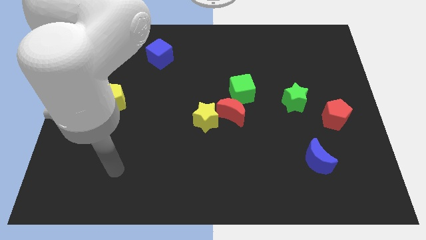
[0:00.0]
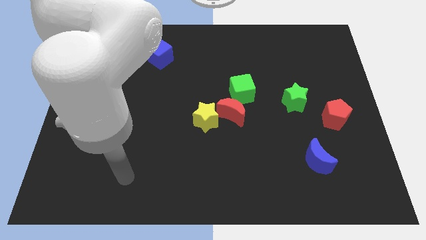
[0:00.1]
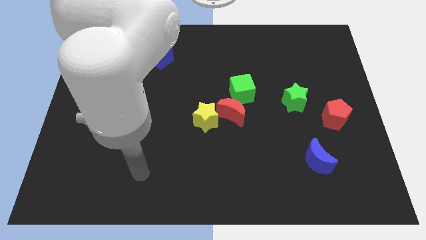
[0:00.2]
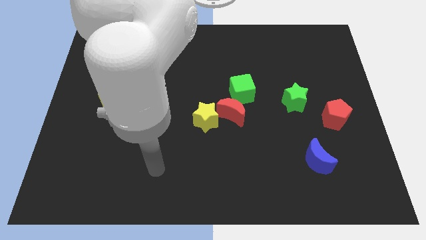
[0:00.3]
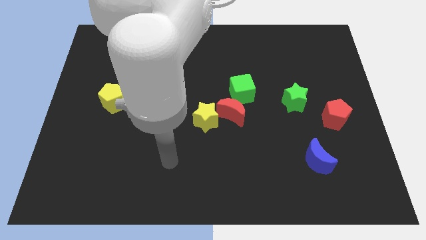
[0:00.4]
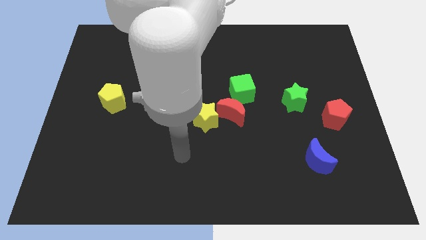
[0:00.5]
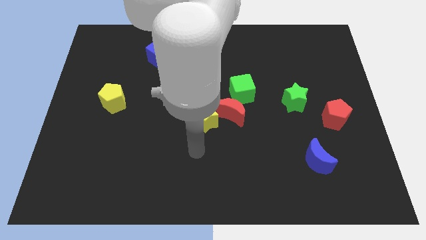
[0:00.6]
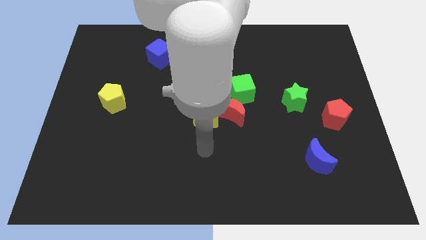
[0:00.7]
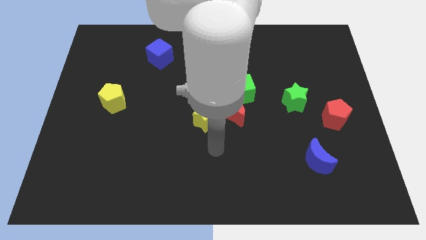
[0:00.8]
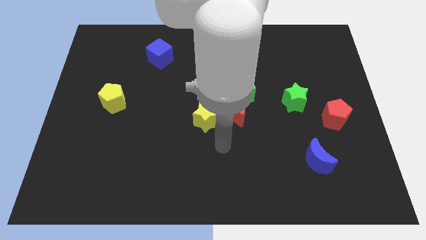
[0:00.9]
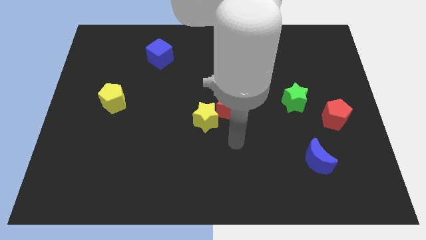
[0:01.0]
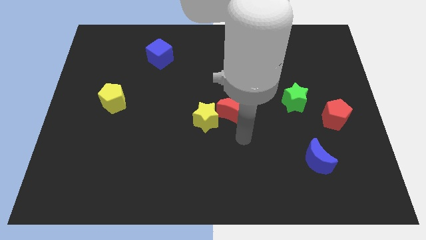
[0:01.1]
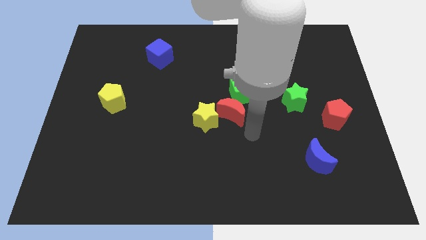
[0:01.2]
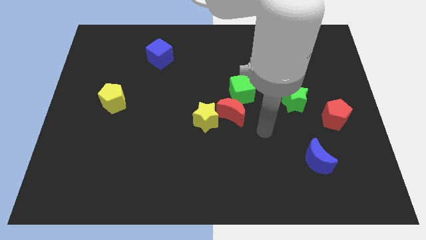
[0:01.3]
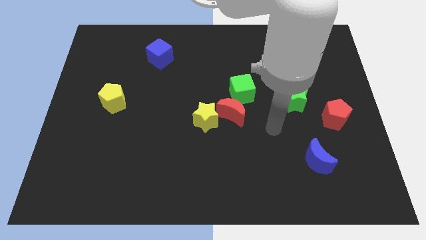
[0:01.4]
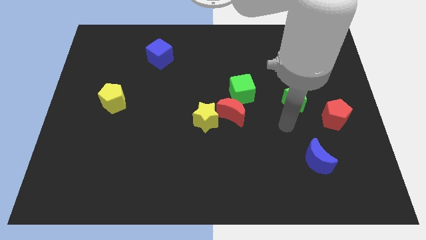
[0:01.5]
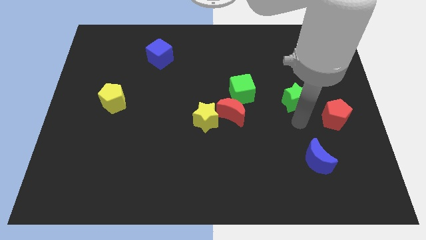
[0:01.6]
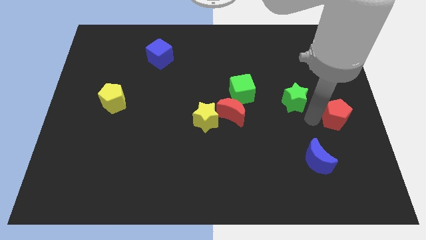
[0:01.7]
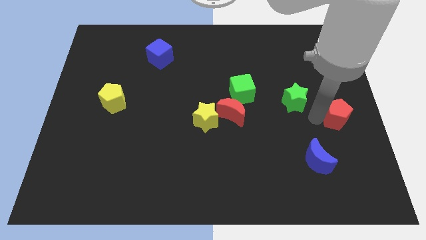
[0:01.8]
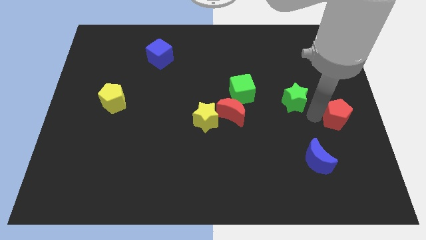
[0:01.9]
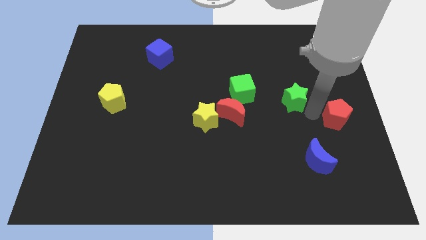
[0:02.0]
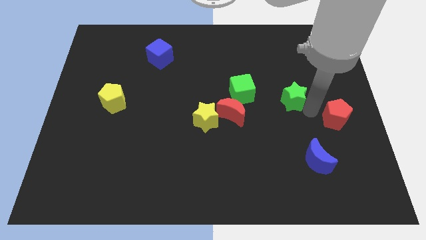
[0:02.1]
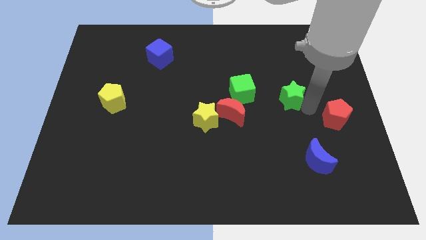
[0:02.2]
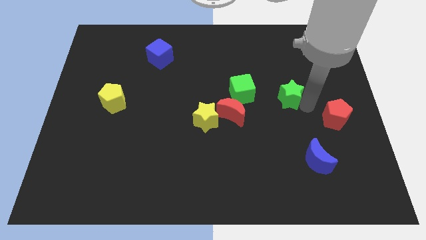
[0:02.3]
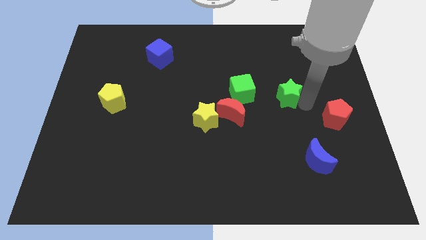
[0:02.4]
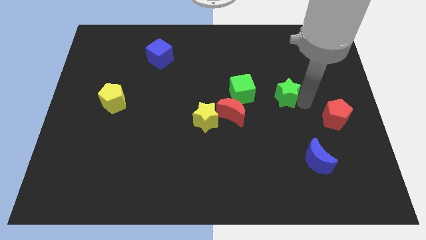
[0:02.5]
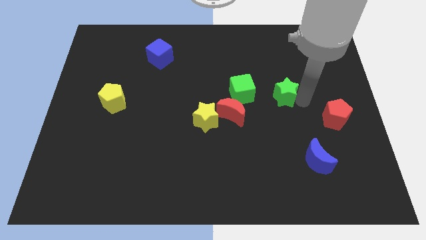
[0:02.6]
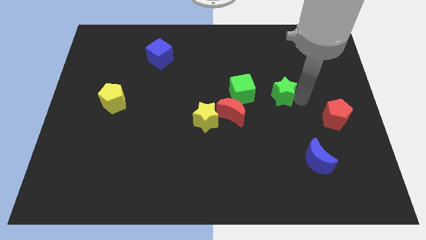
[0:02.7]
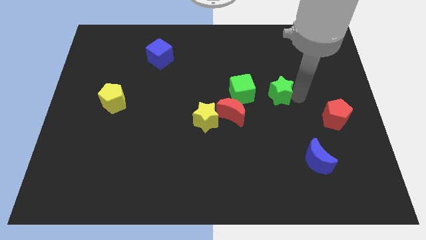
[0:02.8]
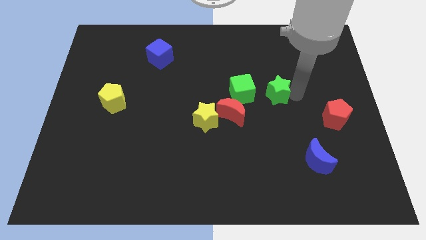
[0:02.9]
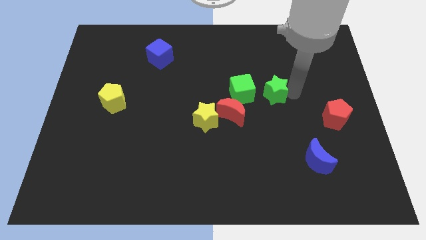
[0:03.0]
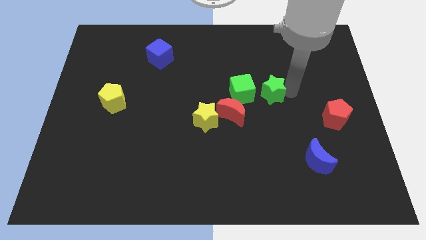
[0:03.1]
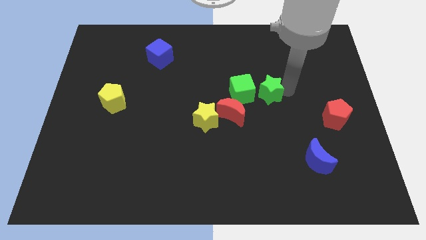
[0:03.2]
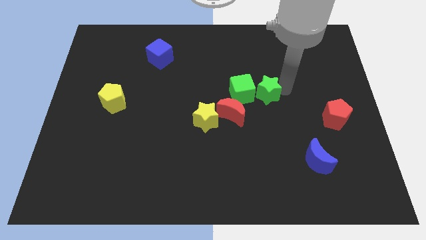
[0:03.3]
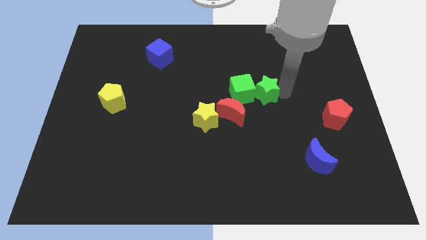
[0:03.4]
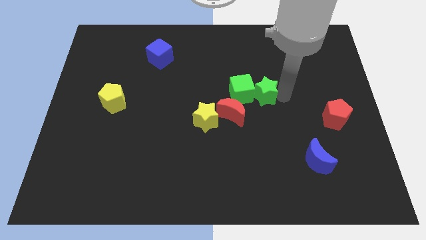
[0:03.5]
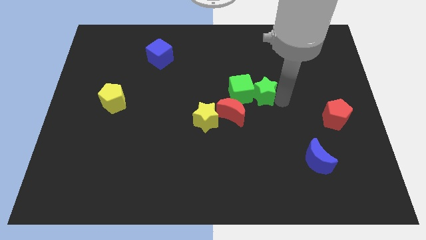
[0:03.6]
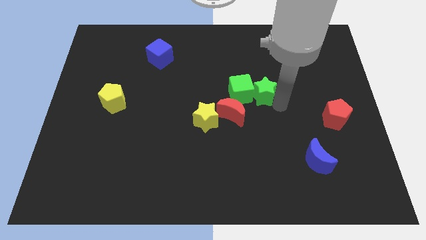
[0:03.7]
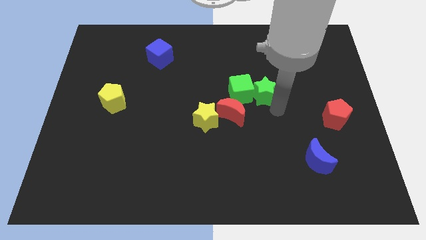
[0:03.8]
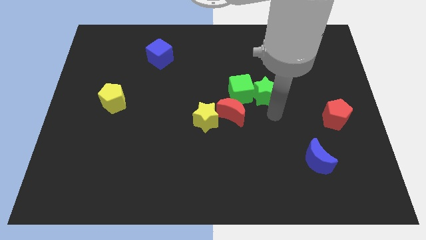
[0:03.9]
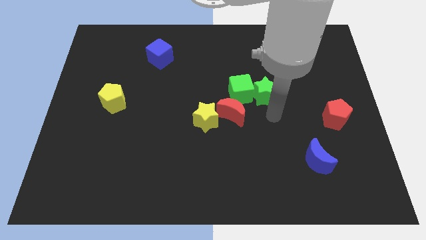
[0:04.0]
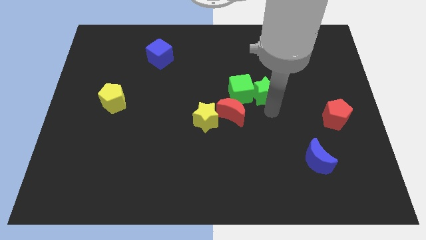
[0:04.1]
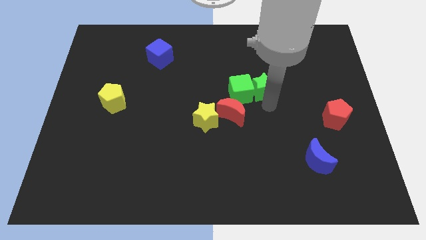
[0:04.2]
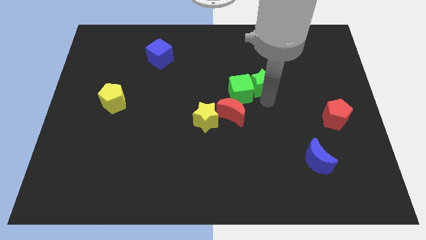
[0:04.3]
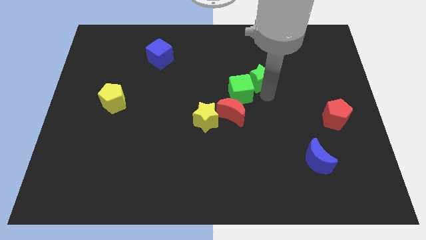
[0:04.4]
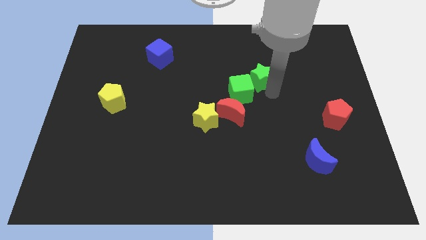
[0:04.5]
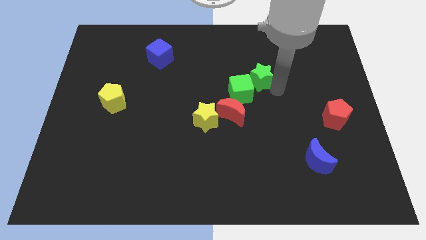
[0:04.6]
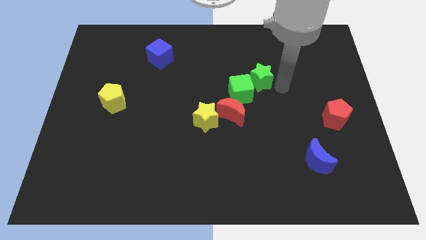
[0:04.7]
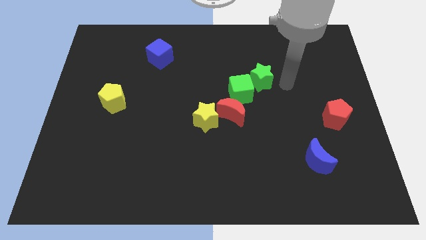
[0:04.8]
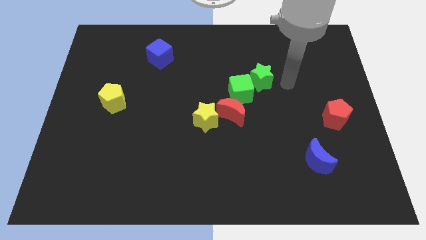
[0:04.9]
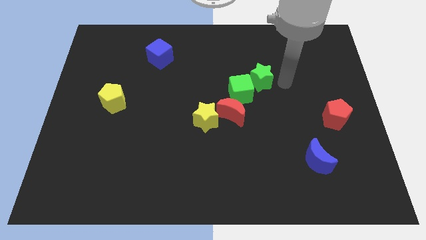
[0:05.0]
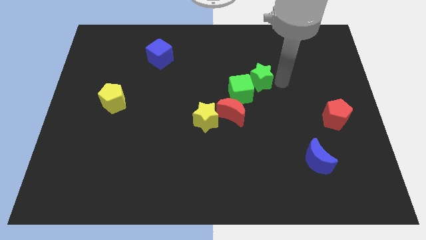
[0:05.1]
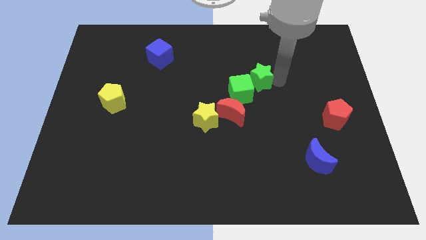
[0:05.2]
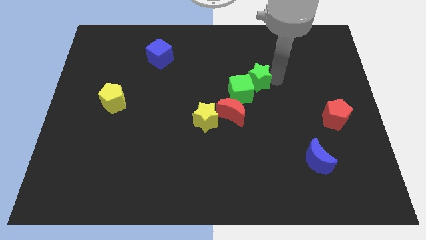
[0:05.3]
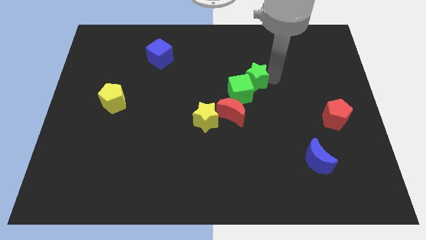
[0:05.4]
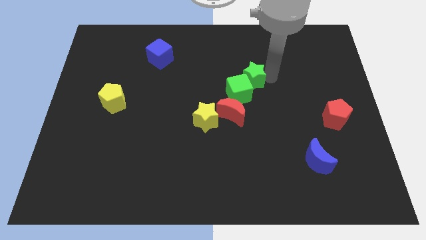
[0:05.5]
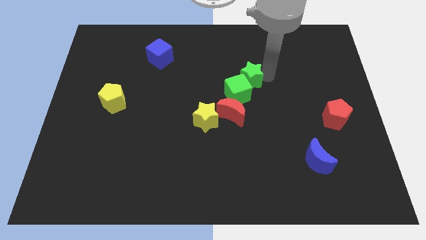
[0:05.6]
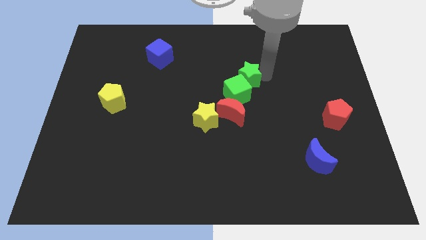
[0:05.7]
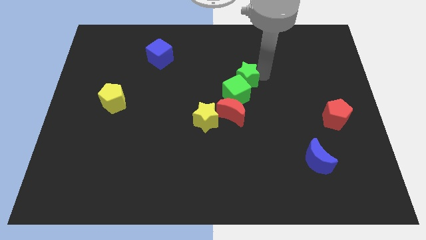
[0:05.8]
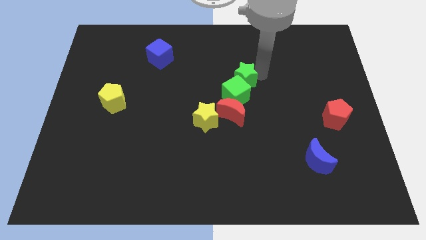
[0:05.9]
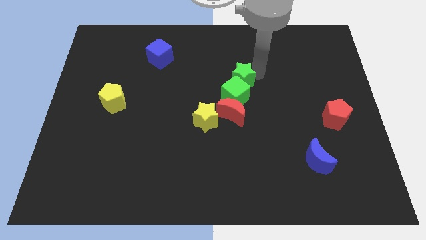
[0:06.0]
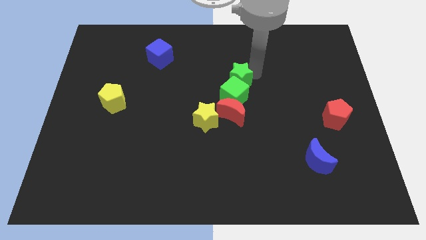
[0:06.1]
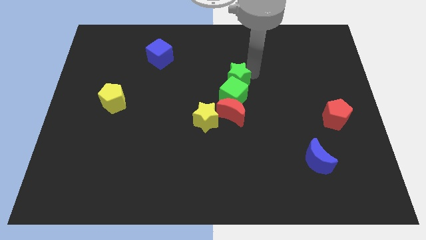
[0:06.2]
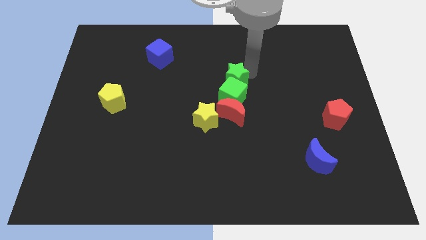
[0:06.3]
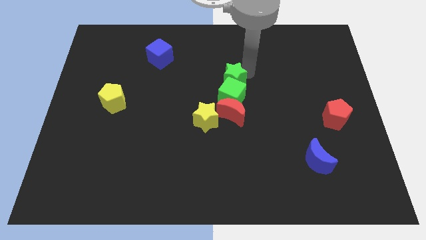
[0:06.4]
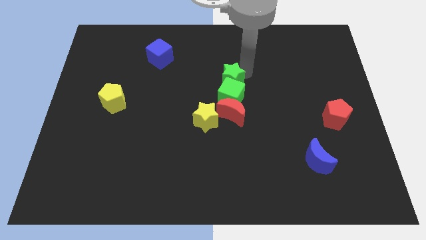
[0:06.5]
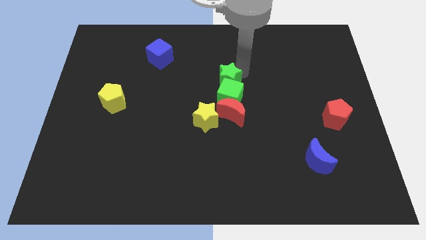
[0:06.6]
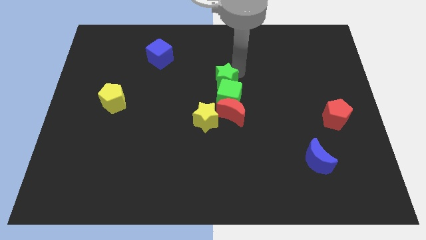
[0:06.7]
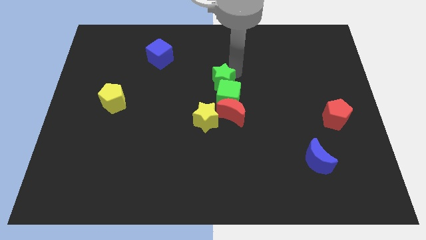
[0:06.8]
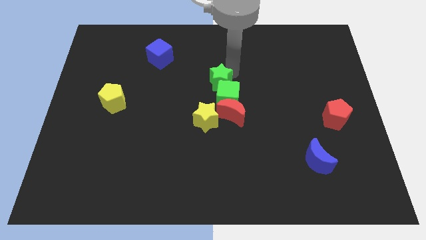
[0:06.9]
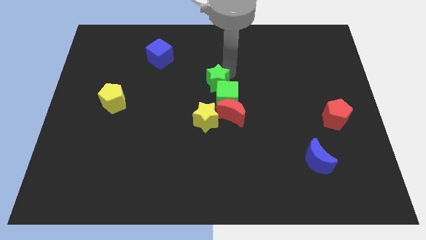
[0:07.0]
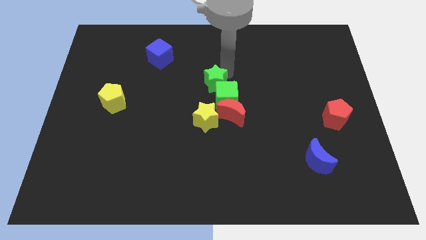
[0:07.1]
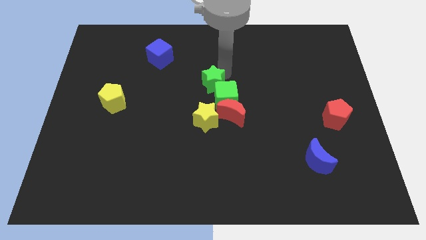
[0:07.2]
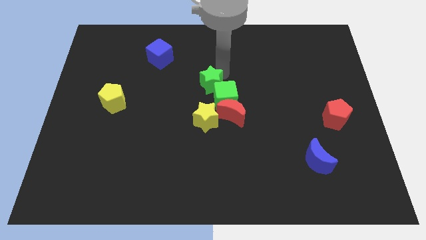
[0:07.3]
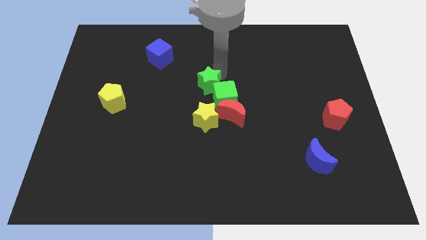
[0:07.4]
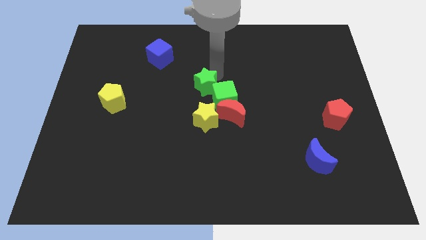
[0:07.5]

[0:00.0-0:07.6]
push the green star to the left

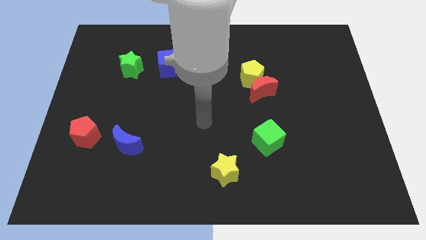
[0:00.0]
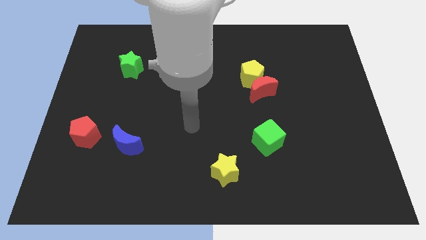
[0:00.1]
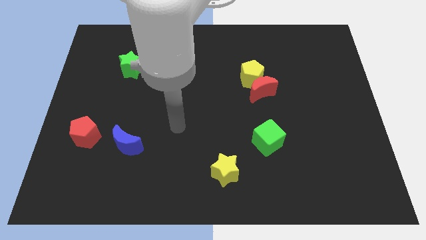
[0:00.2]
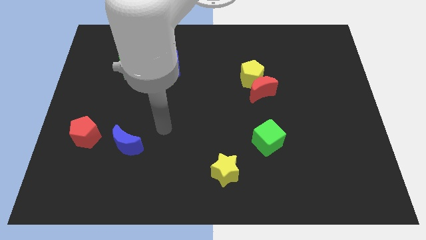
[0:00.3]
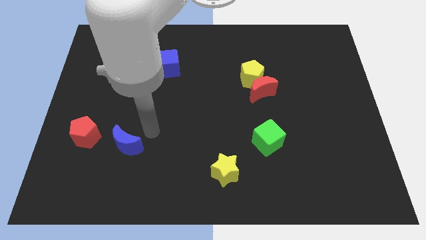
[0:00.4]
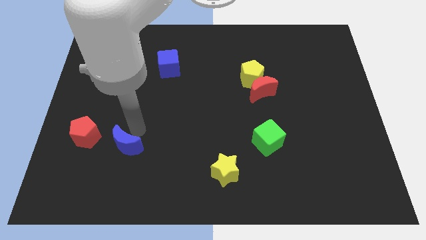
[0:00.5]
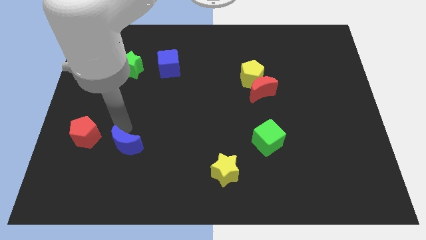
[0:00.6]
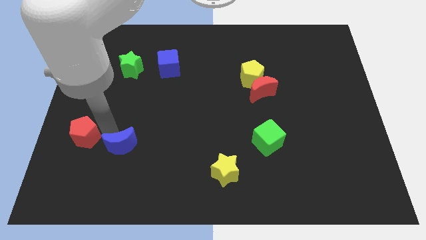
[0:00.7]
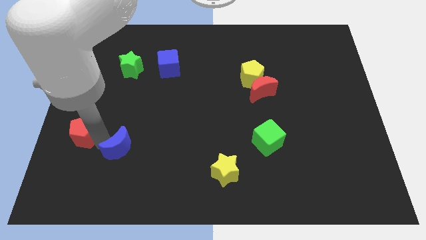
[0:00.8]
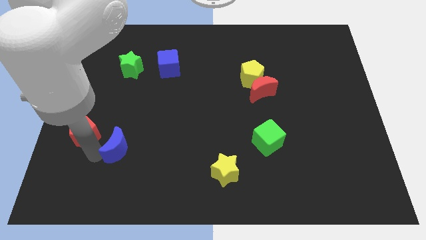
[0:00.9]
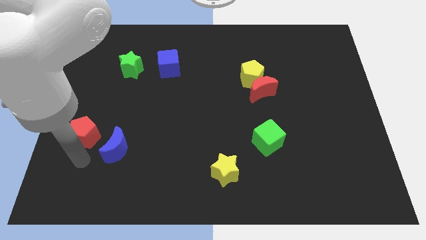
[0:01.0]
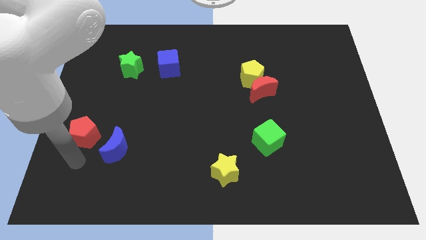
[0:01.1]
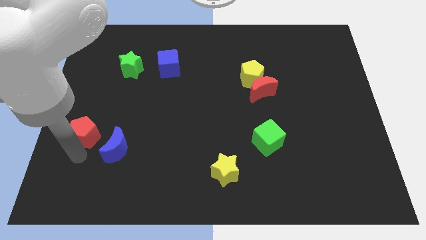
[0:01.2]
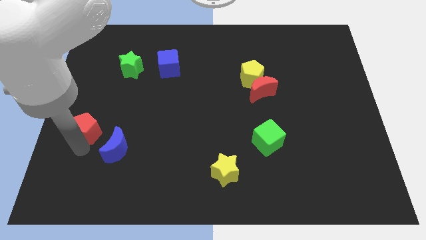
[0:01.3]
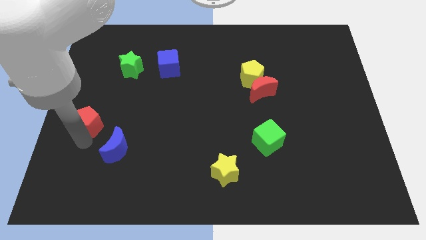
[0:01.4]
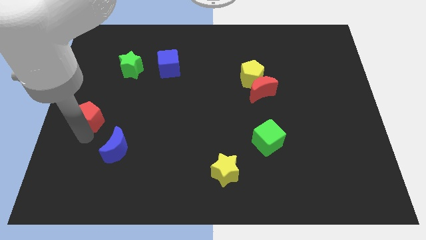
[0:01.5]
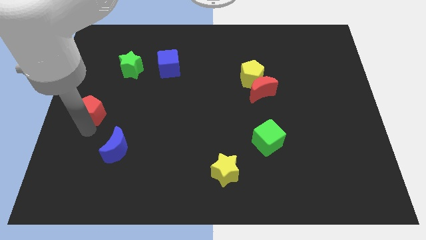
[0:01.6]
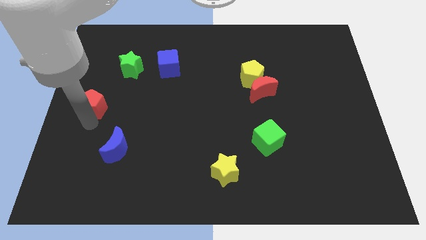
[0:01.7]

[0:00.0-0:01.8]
move the red pentagon slightly upwards
